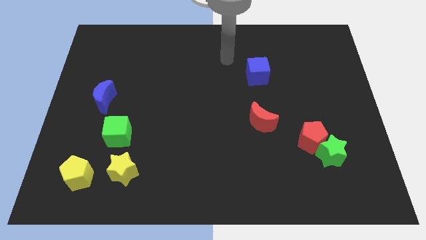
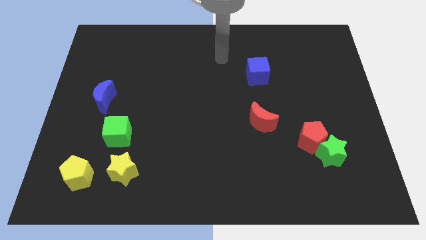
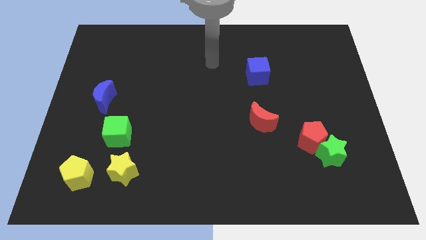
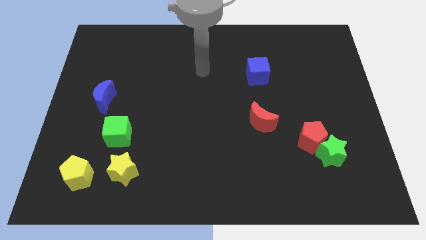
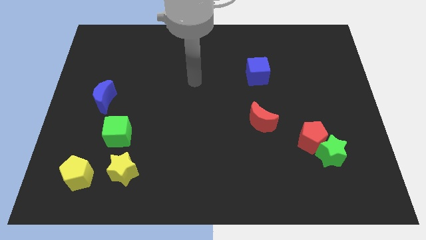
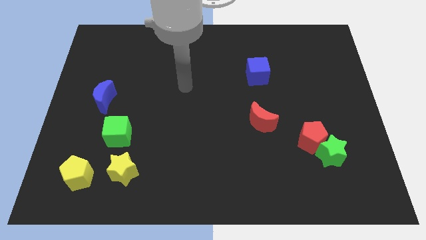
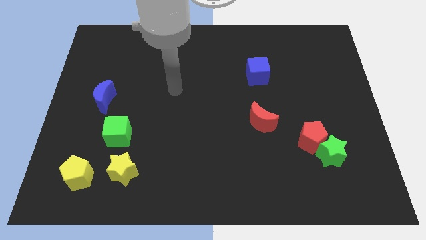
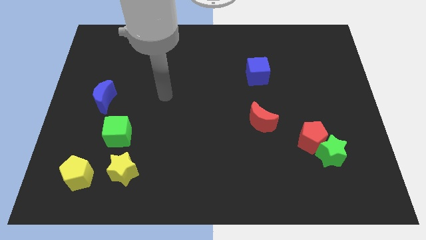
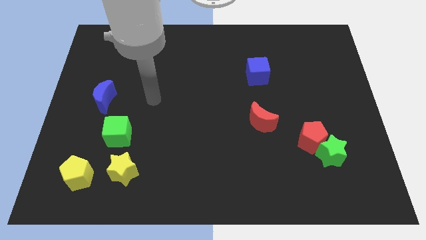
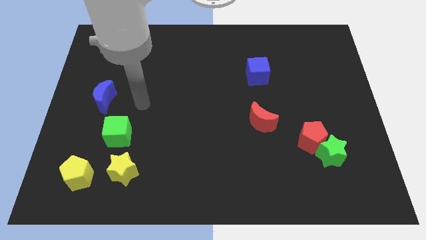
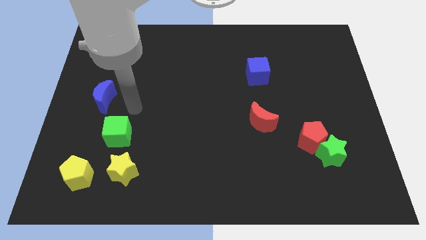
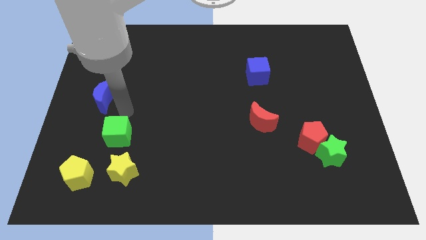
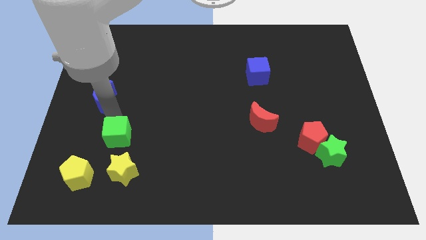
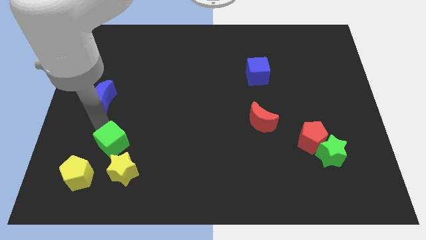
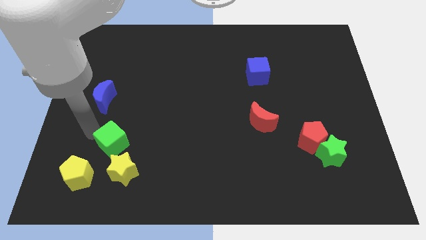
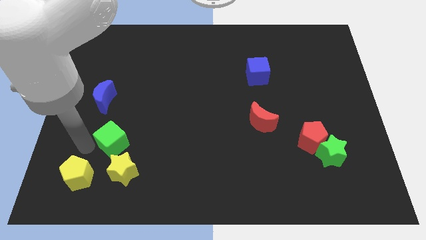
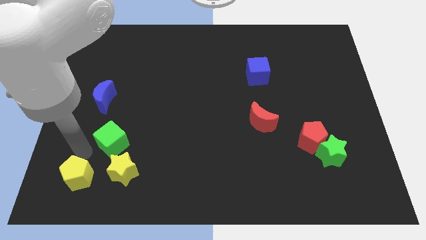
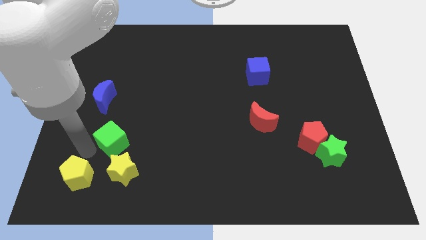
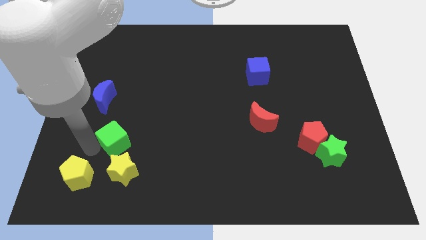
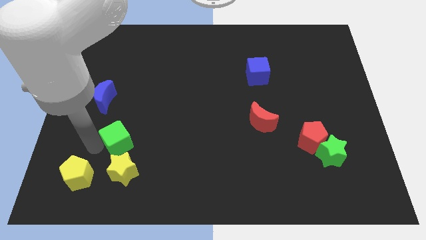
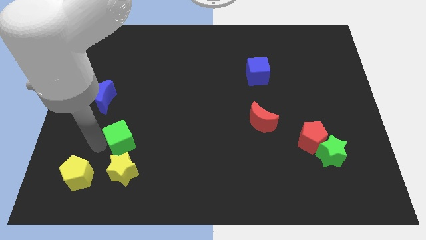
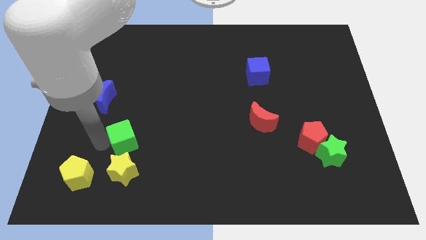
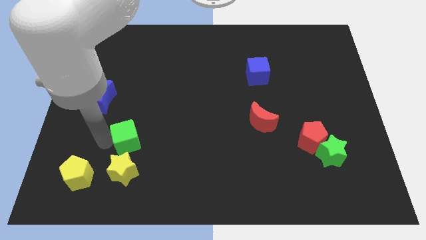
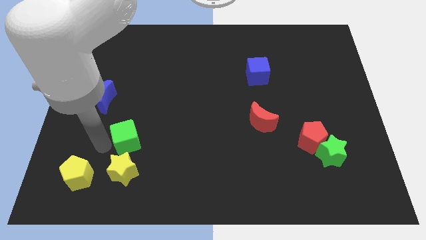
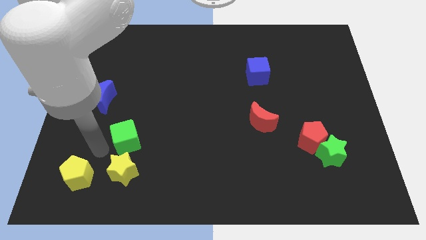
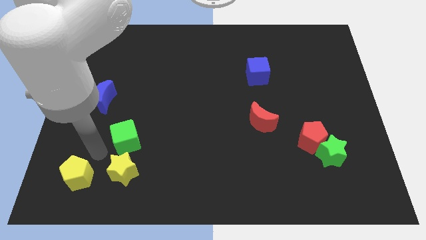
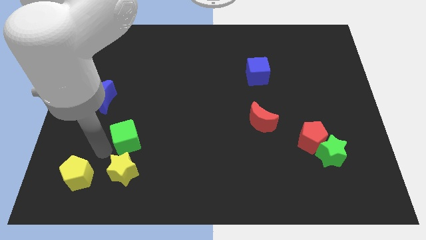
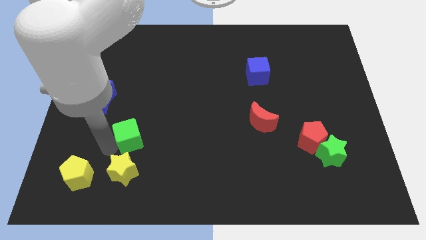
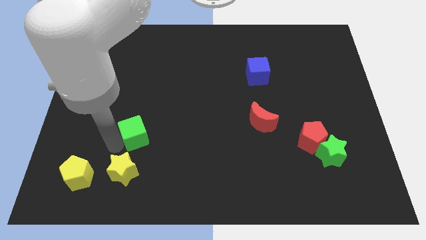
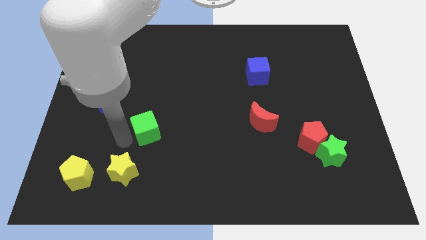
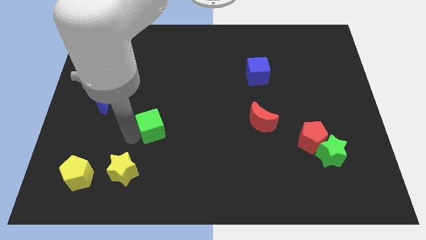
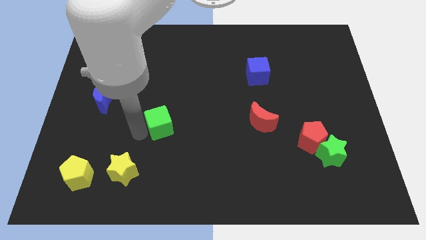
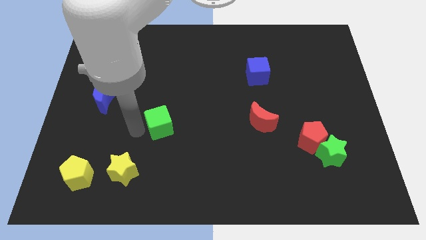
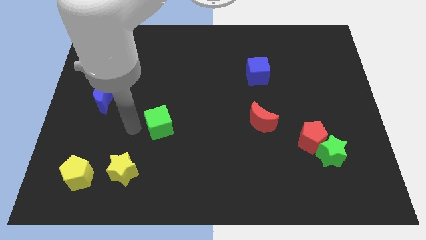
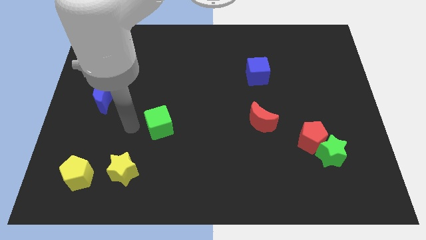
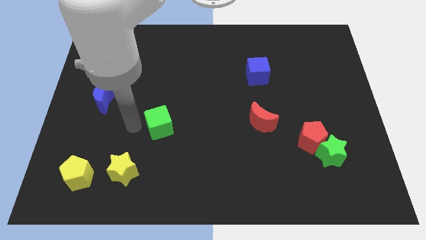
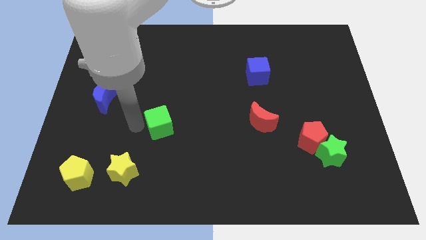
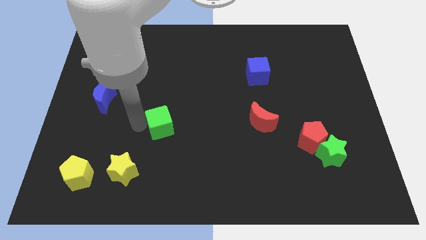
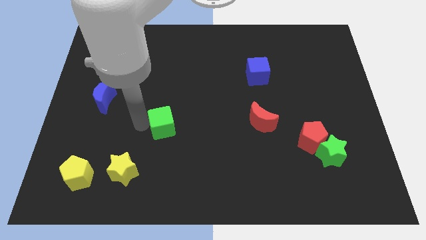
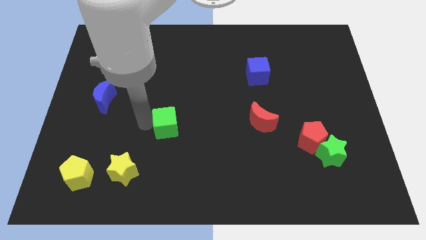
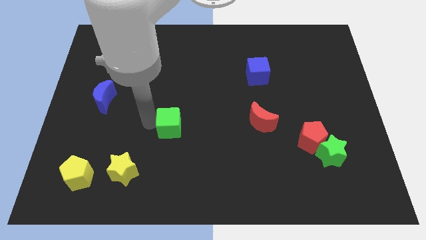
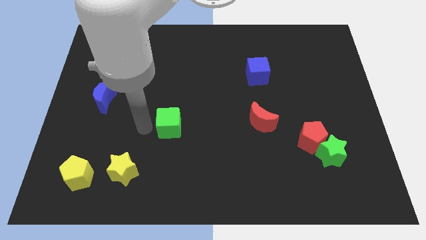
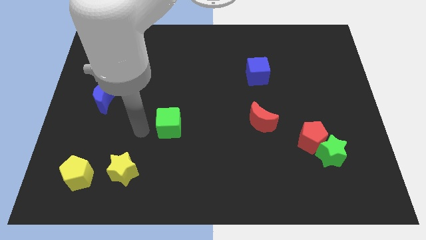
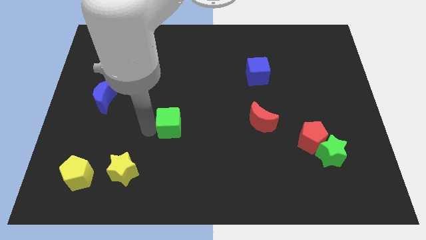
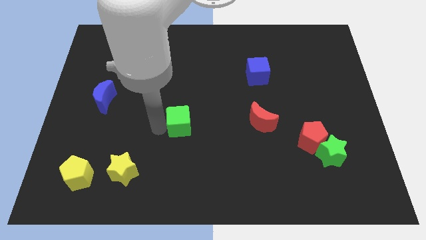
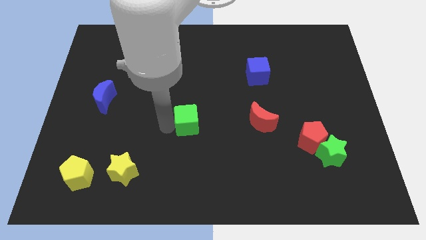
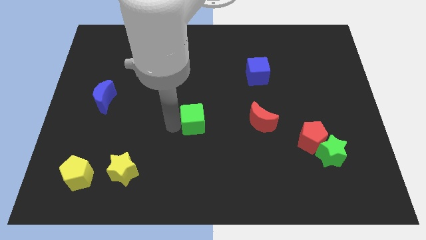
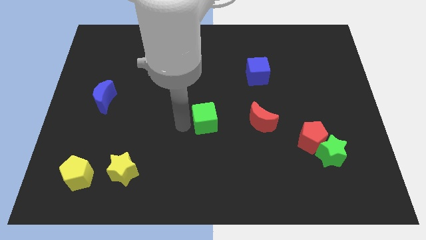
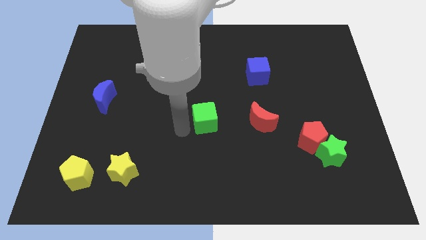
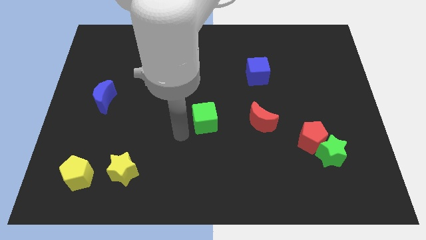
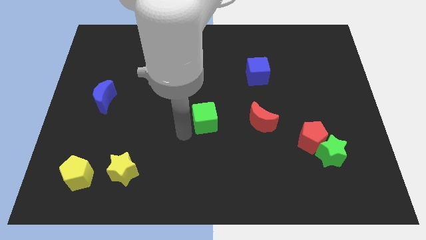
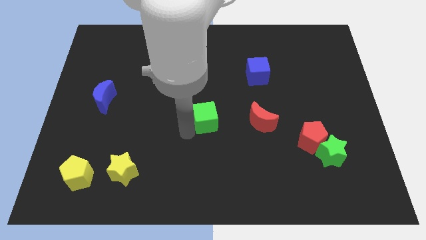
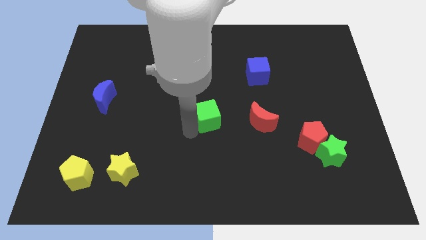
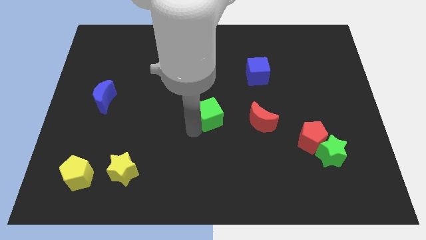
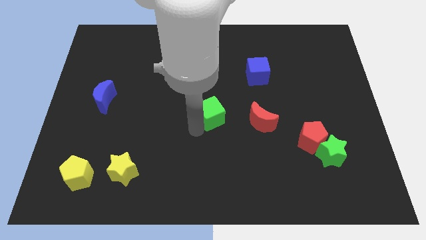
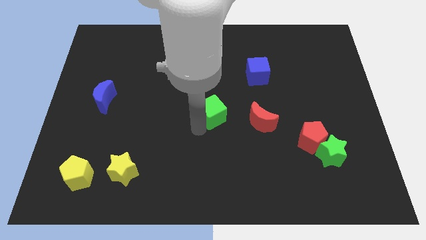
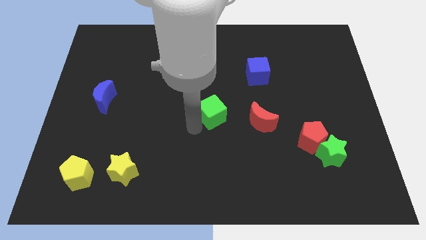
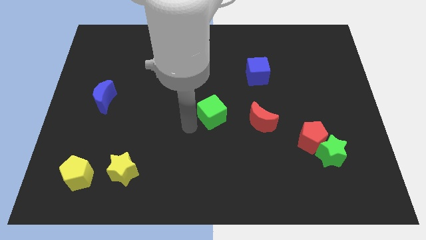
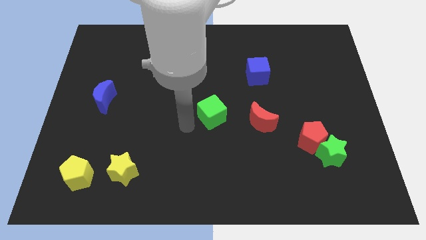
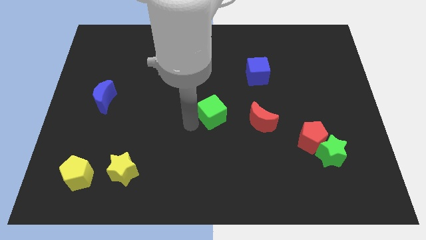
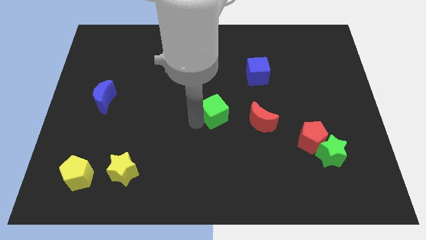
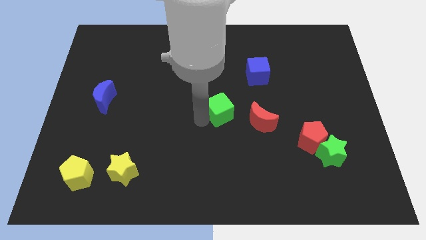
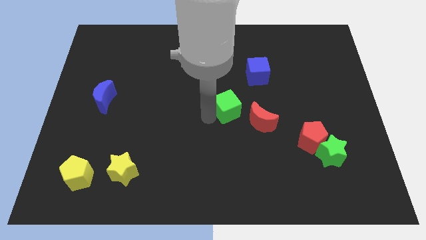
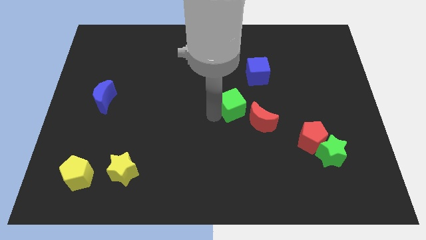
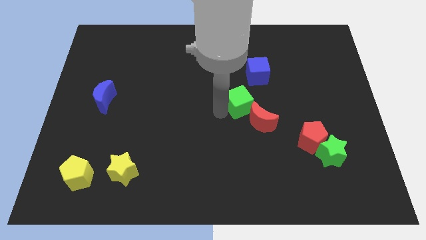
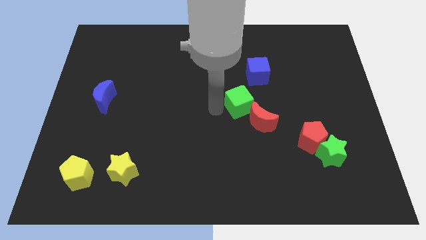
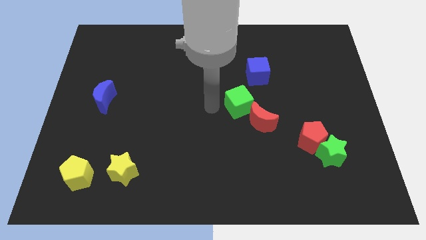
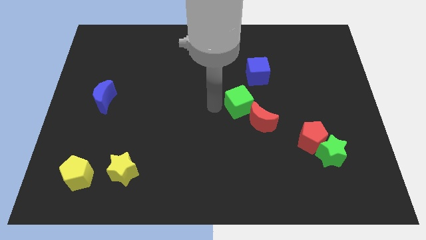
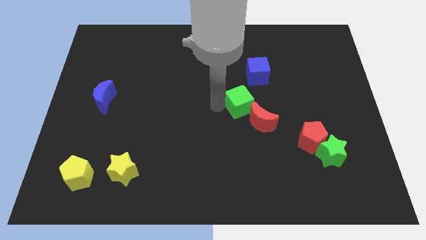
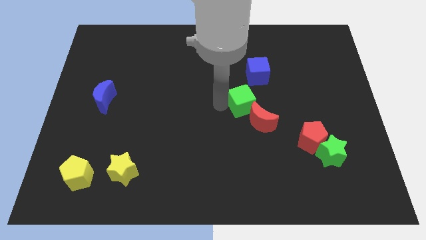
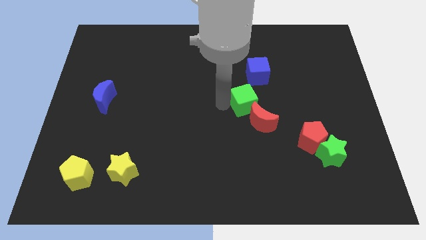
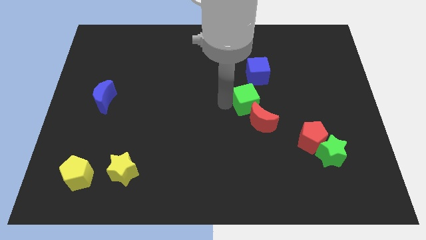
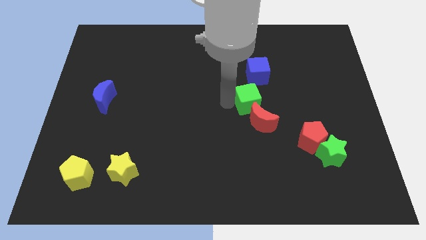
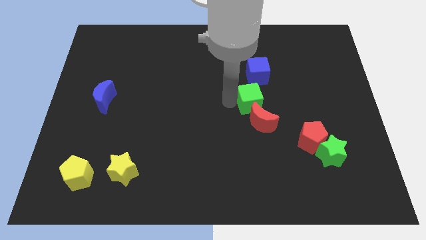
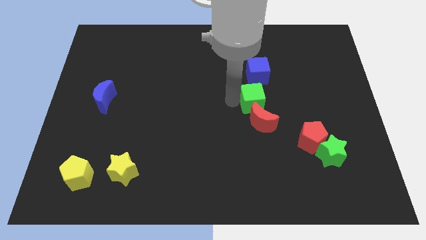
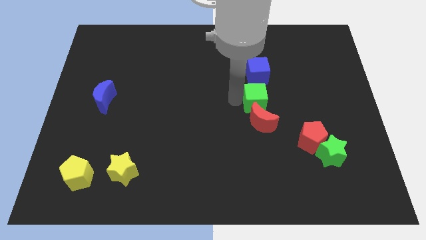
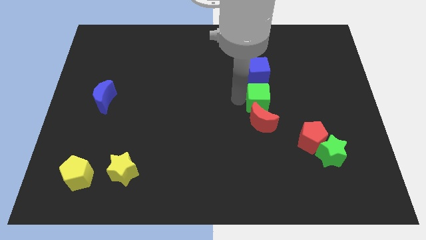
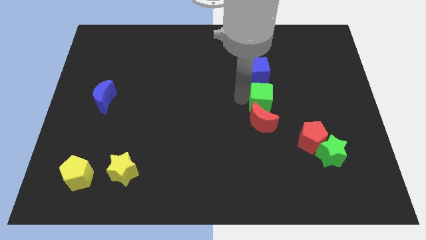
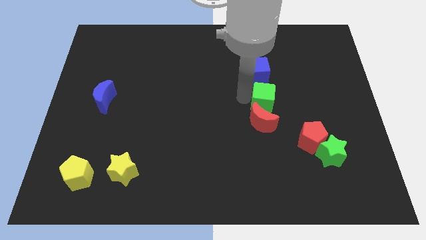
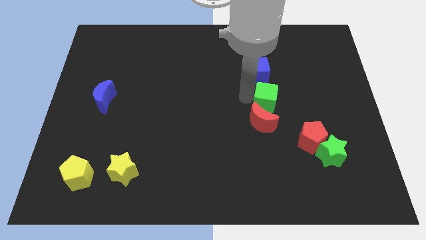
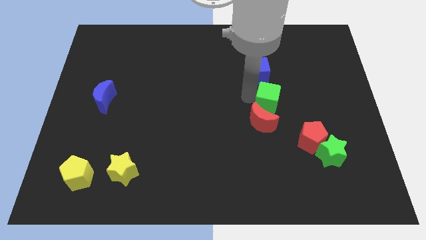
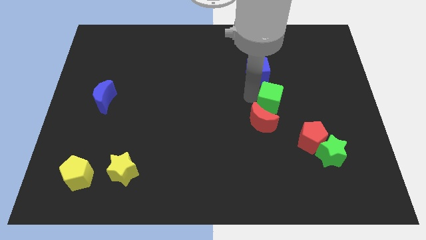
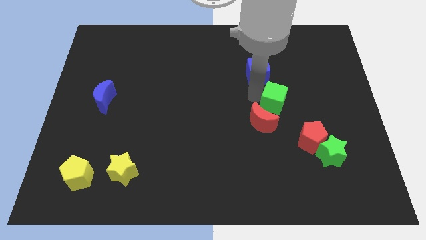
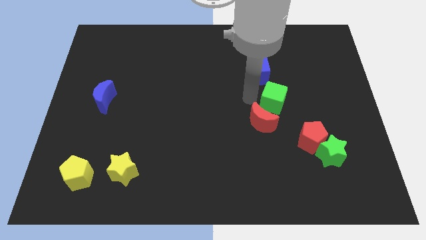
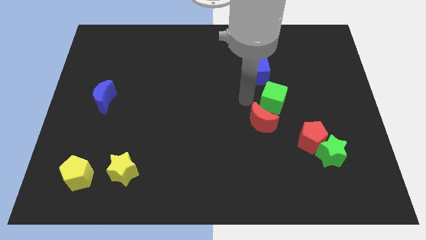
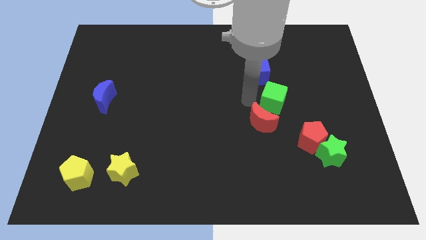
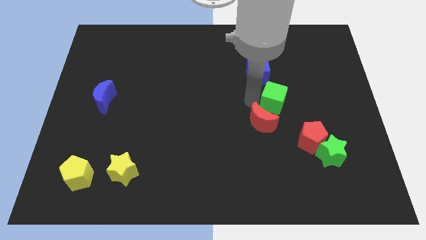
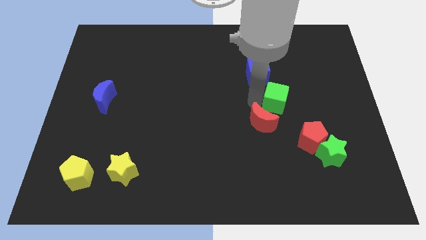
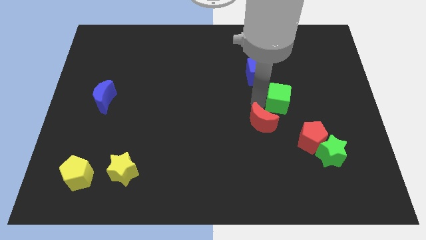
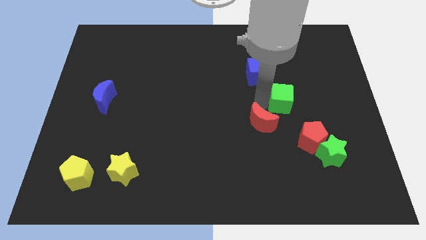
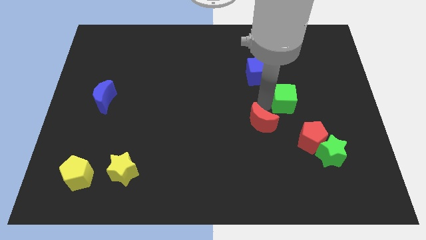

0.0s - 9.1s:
push the green cube to the top side of the red pentagon
